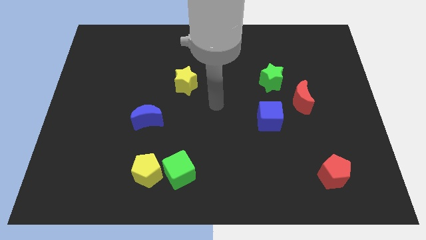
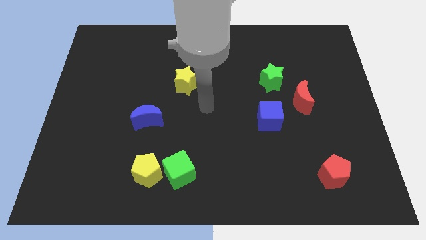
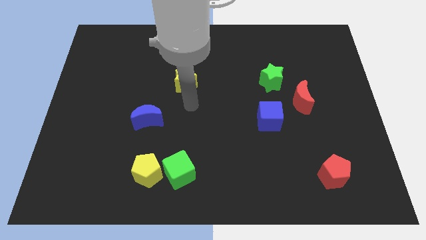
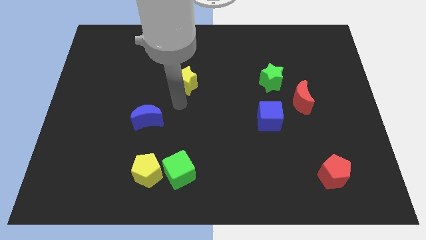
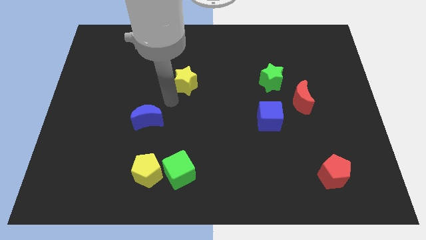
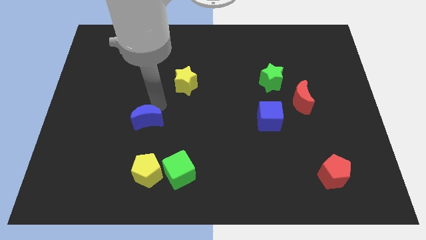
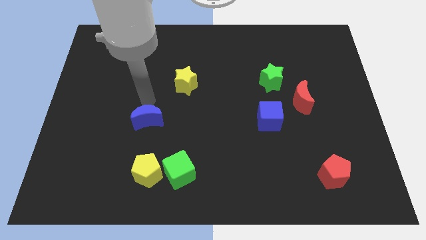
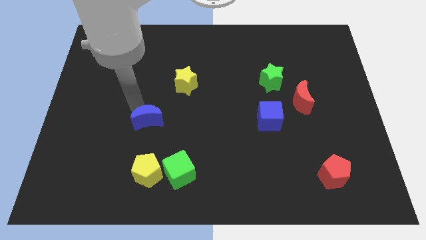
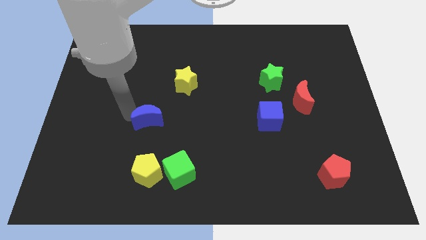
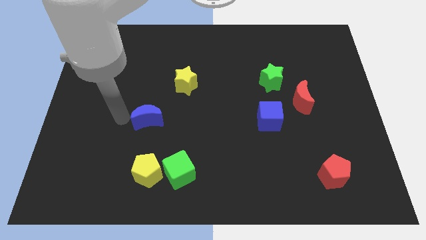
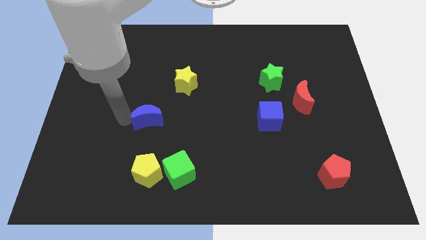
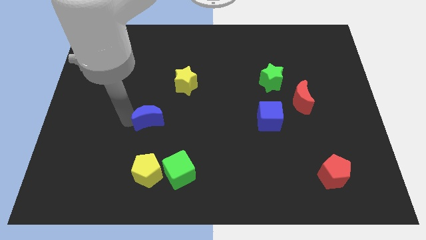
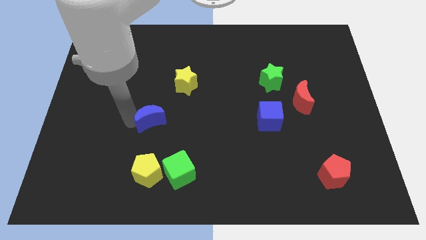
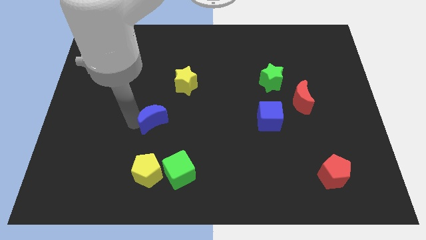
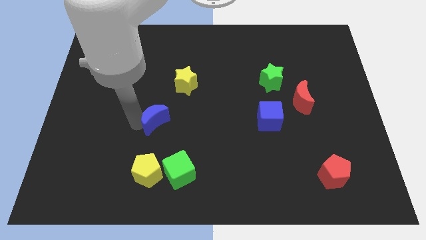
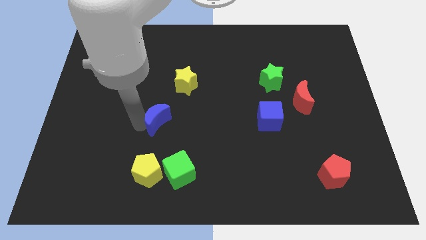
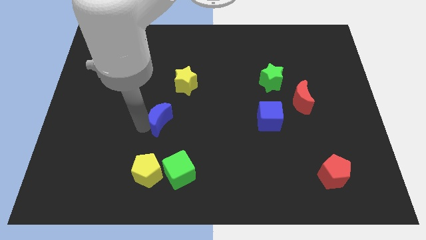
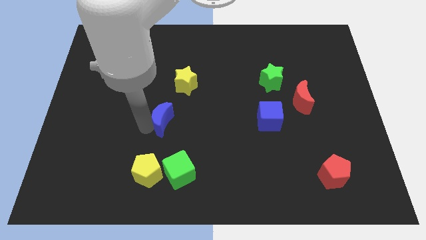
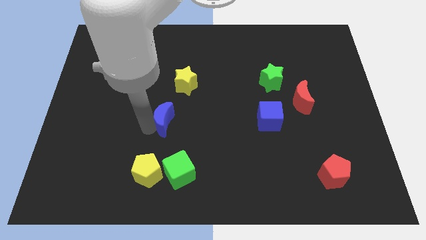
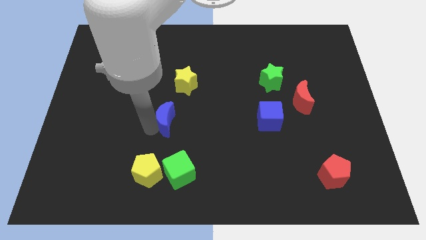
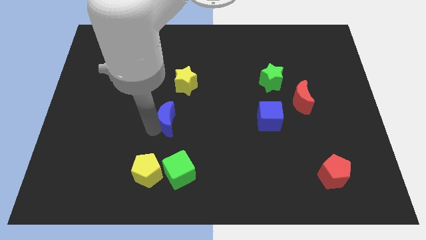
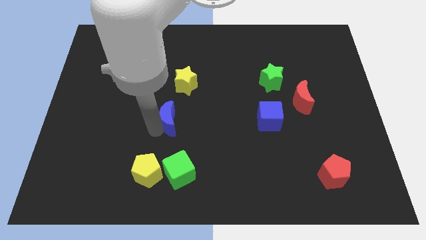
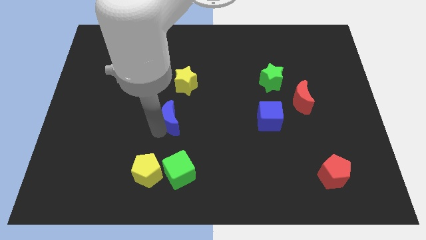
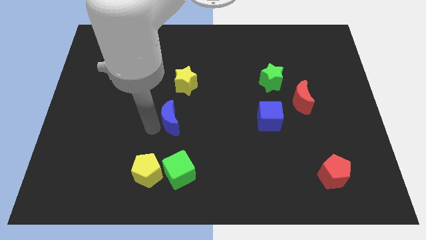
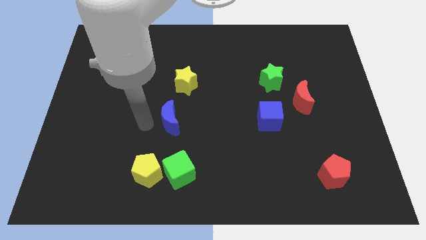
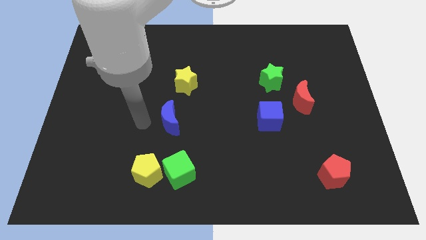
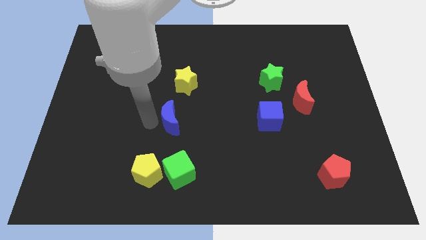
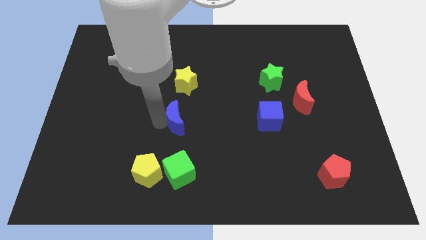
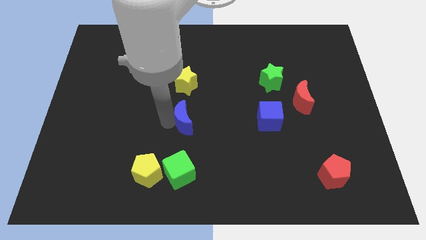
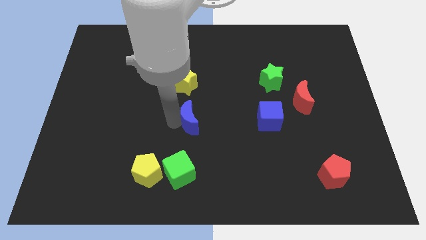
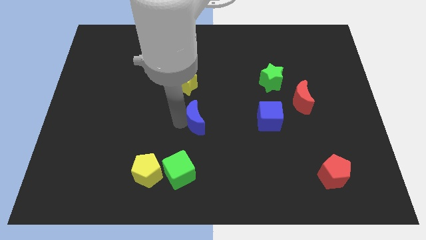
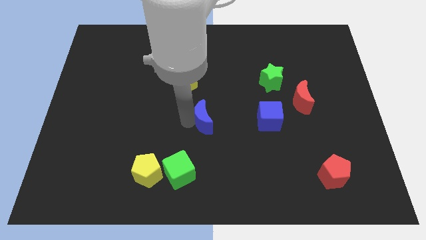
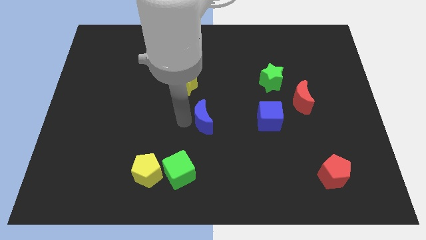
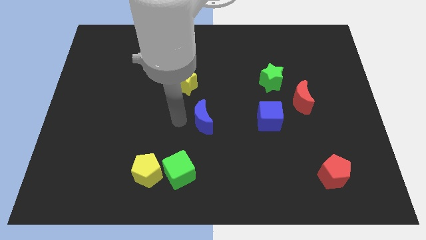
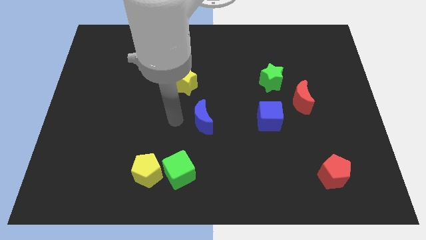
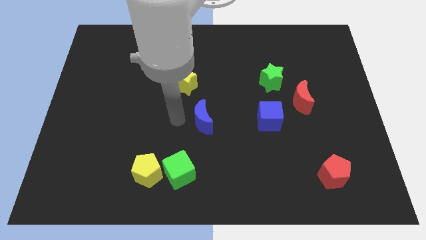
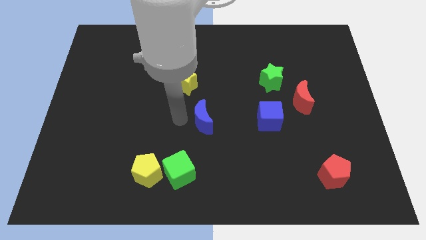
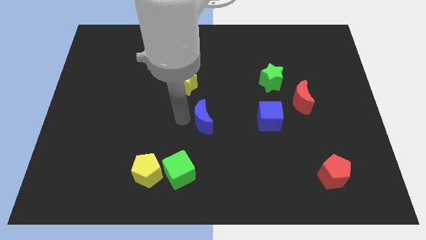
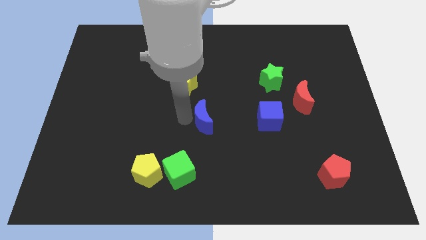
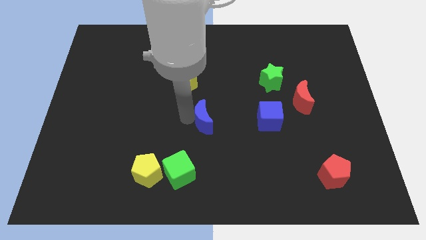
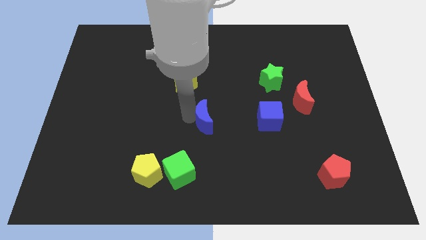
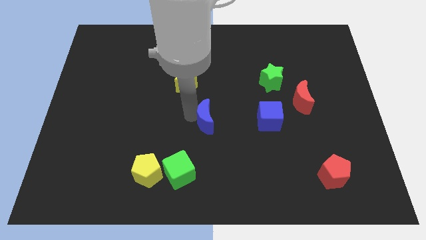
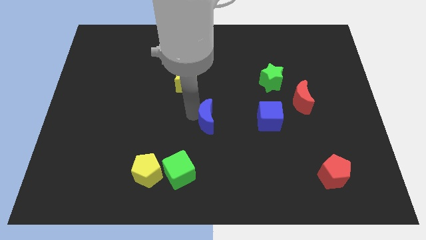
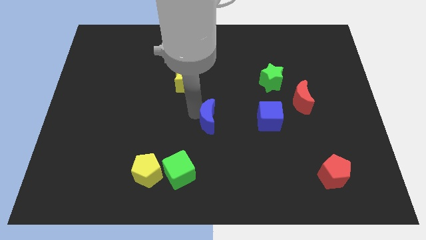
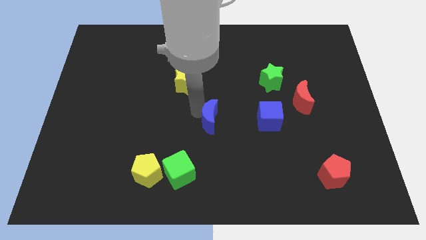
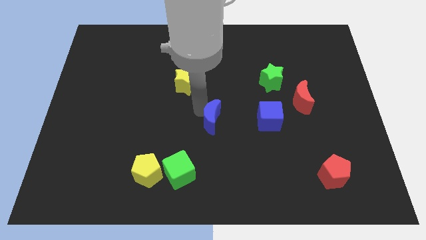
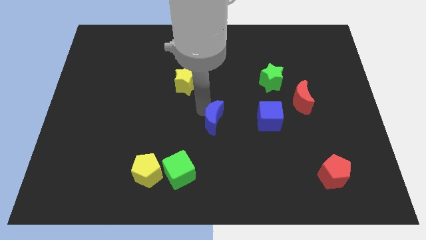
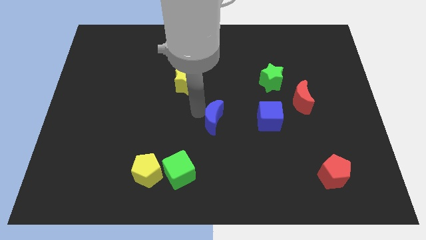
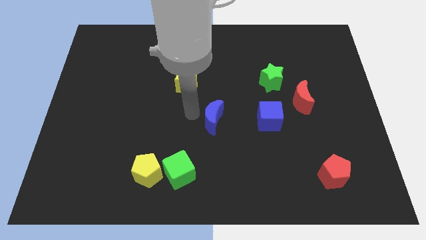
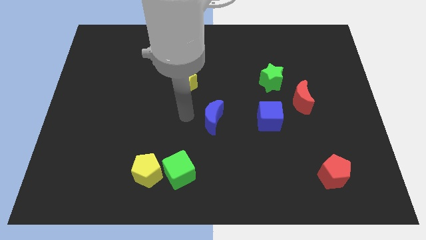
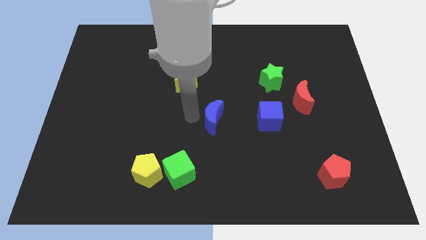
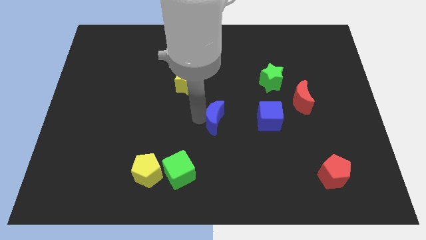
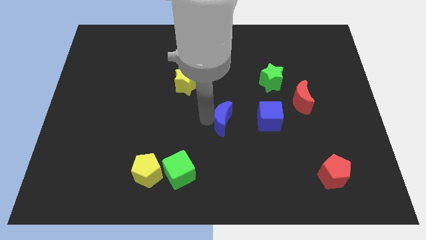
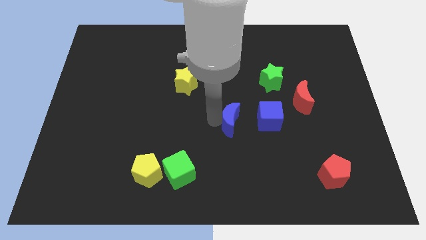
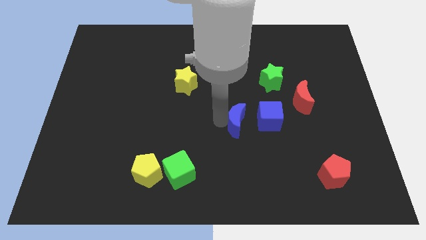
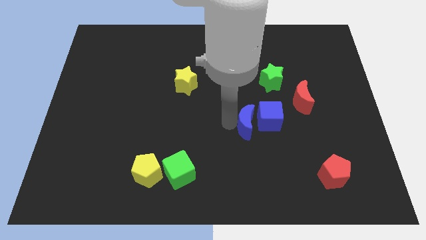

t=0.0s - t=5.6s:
push the blue moon next to the blue cube

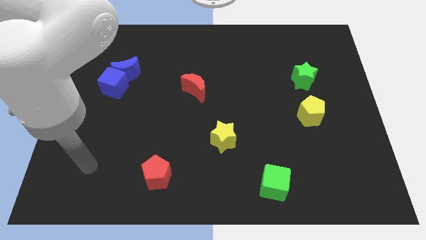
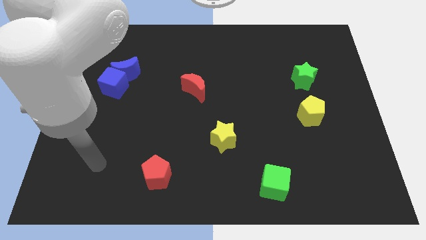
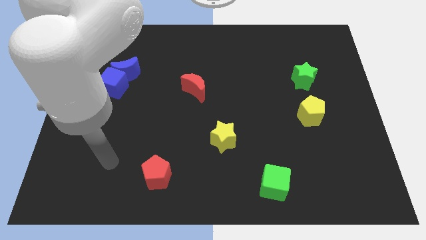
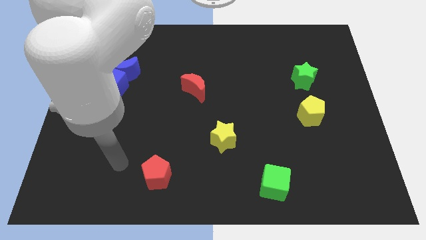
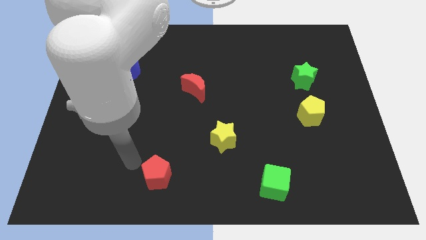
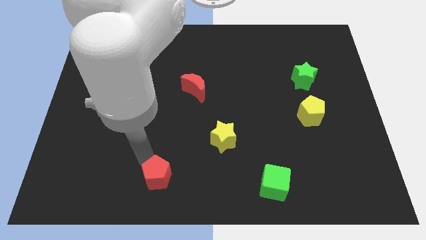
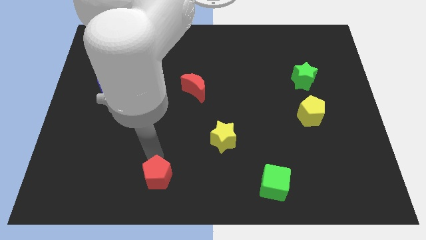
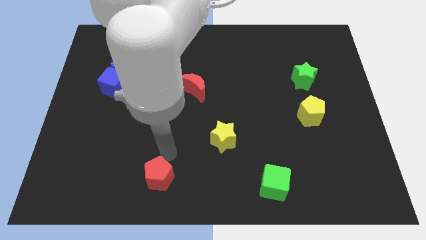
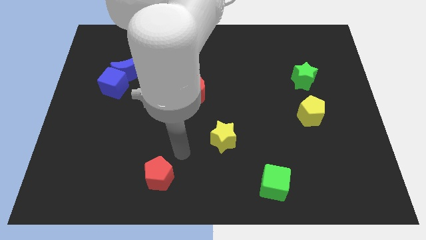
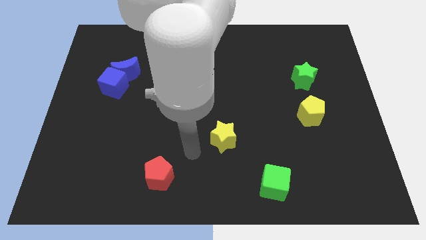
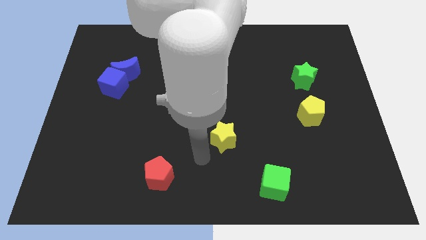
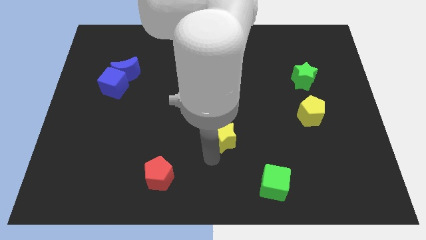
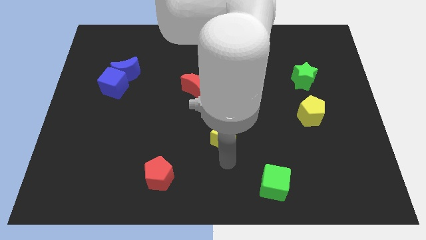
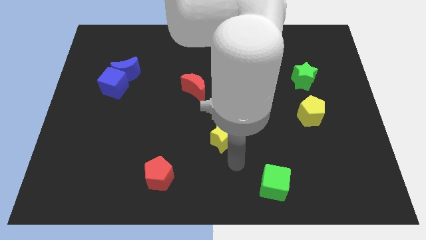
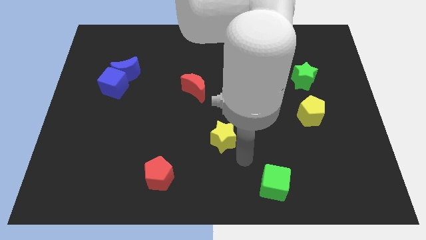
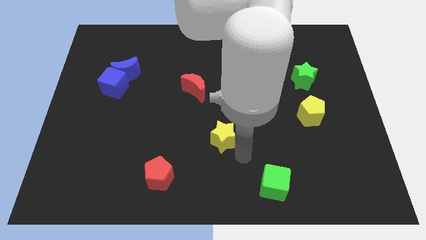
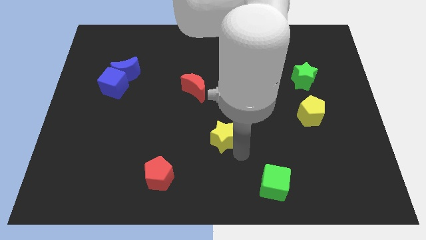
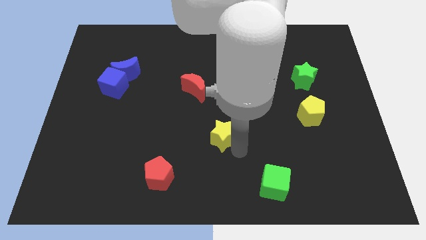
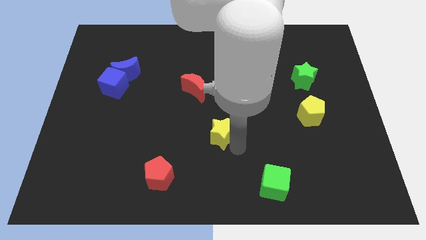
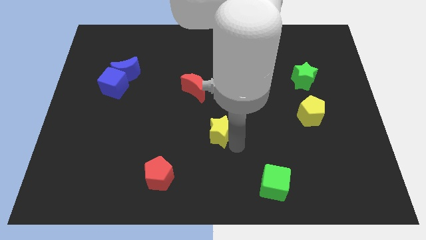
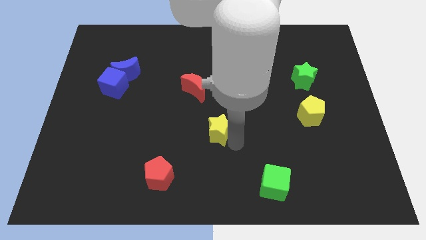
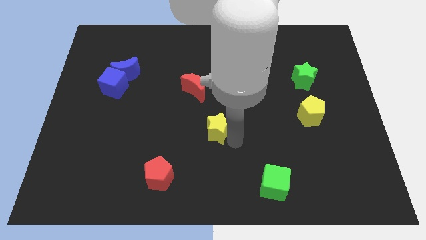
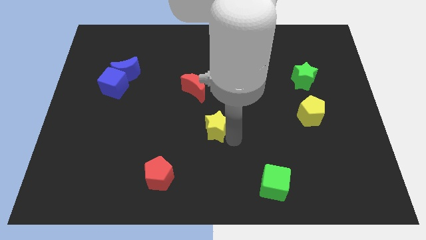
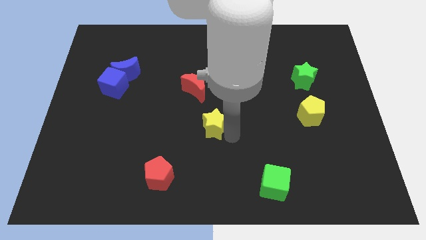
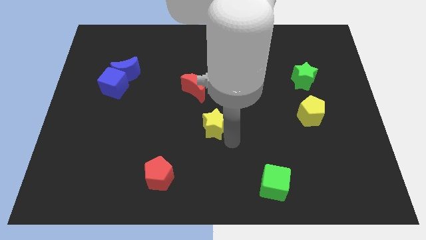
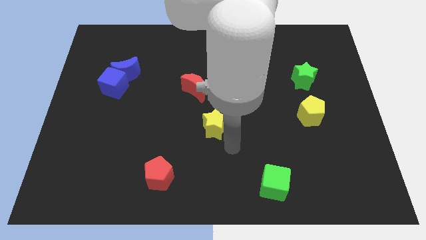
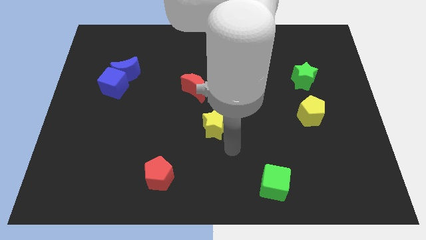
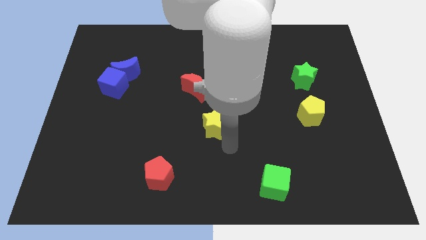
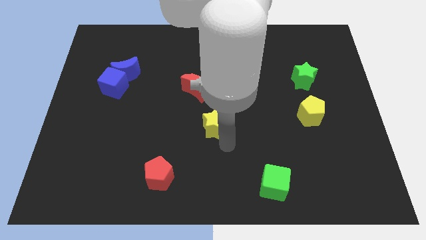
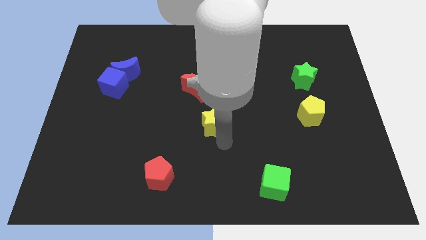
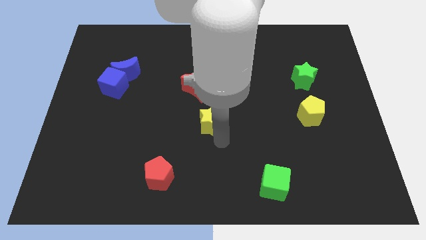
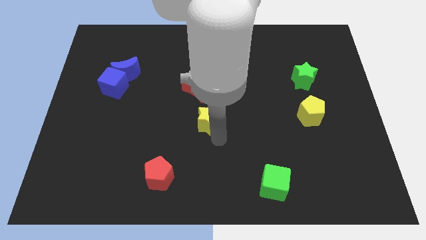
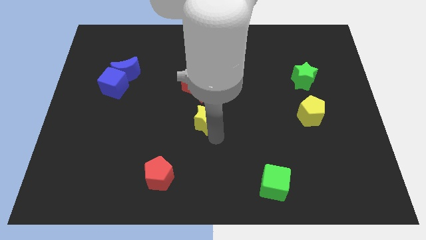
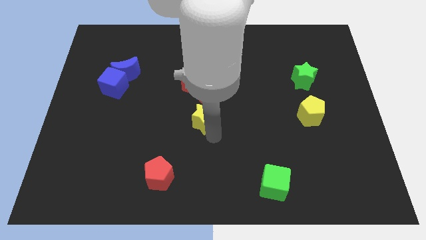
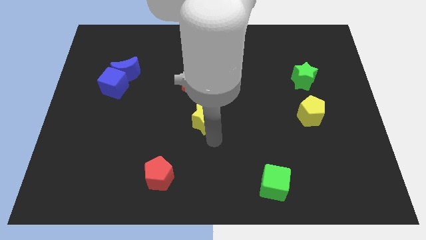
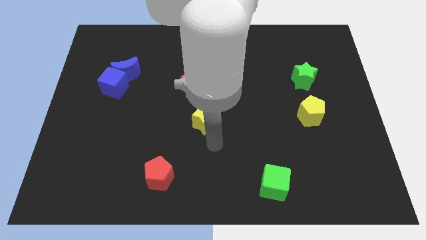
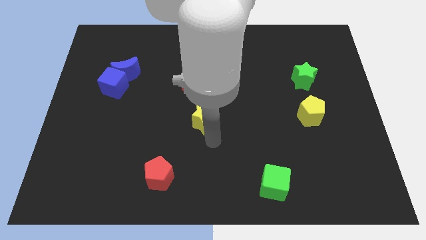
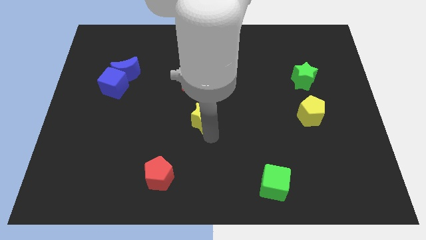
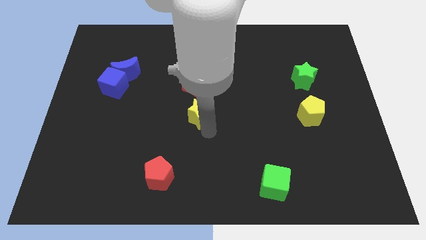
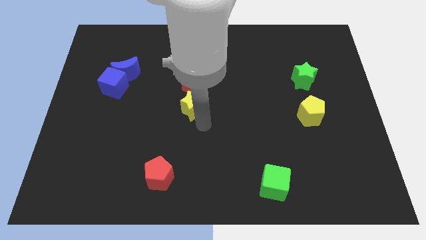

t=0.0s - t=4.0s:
push the yellow star towards the red moon
